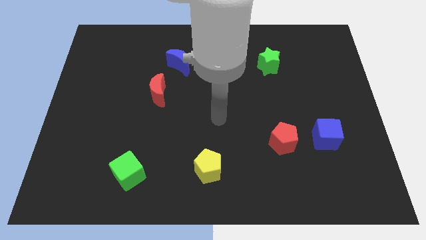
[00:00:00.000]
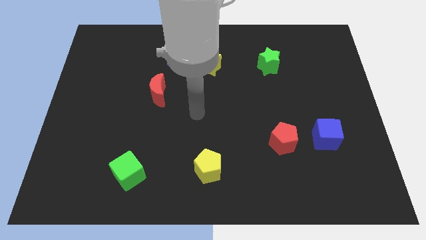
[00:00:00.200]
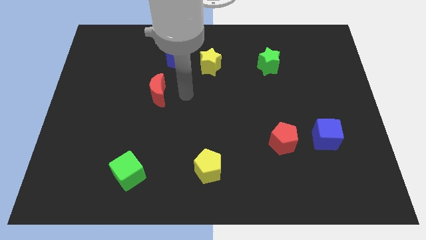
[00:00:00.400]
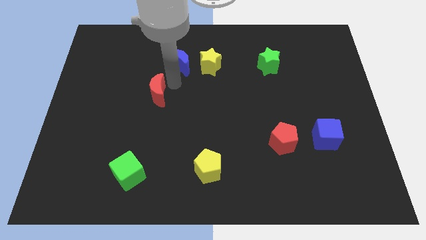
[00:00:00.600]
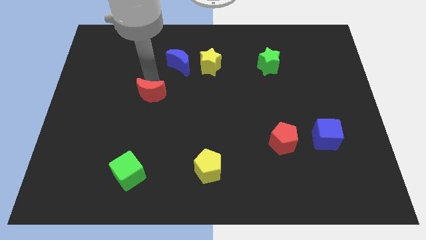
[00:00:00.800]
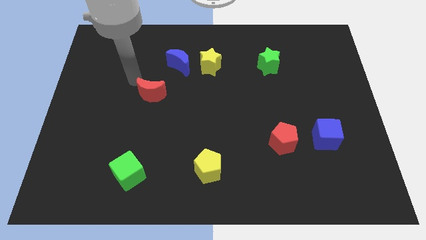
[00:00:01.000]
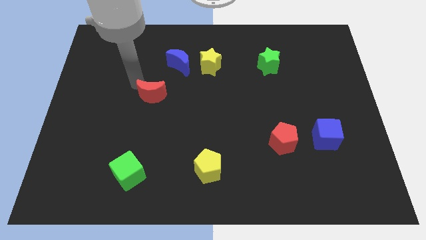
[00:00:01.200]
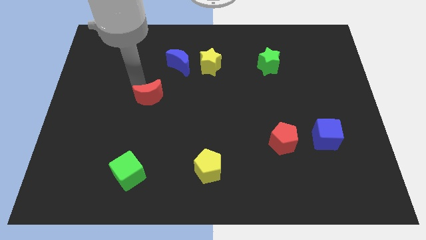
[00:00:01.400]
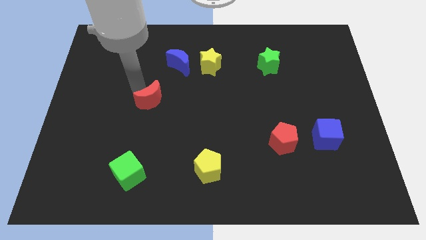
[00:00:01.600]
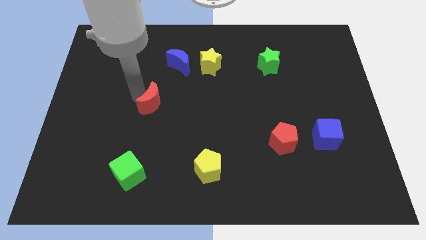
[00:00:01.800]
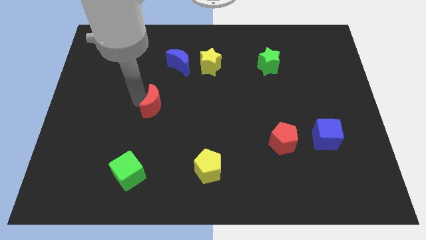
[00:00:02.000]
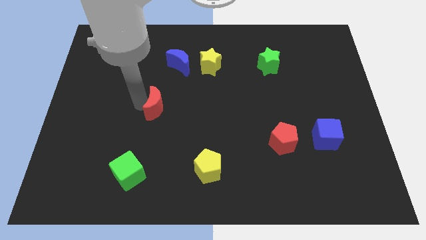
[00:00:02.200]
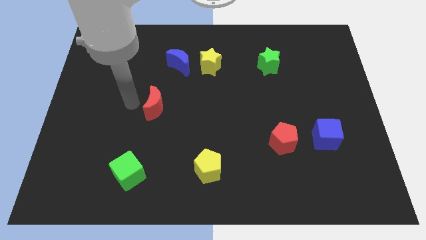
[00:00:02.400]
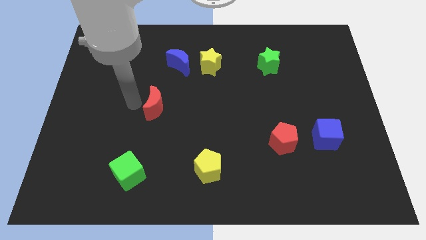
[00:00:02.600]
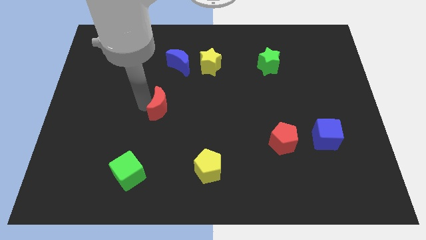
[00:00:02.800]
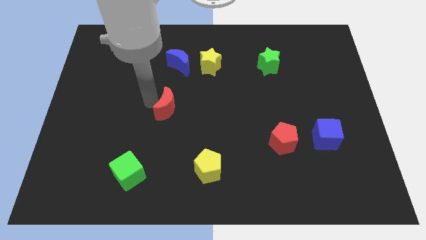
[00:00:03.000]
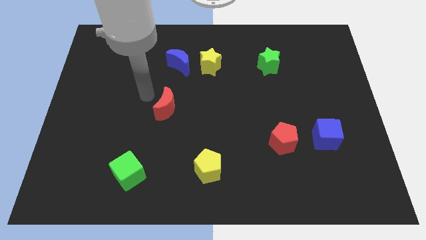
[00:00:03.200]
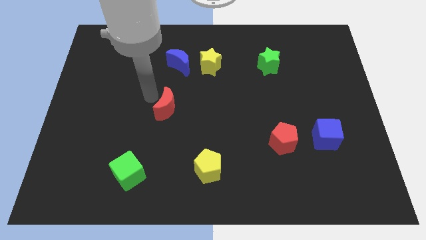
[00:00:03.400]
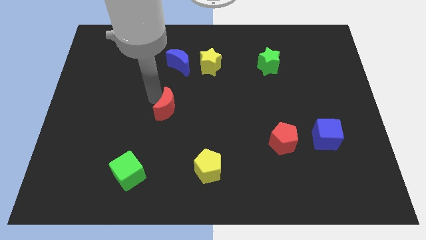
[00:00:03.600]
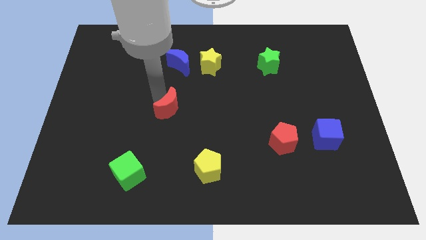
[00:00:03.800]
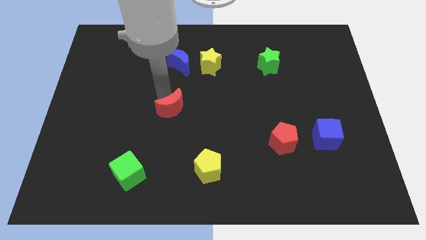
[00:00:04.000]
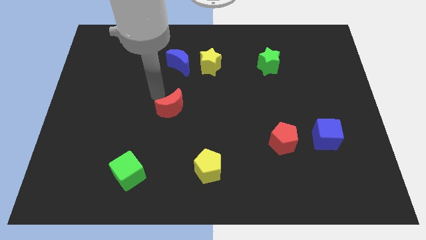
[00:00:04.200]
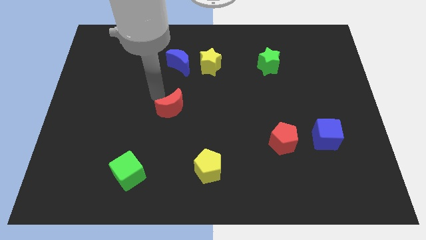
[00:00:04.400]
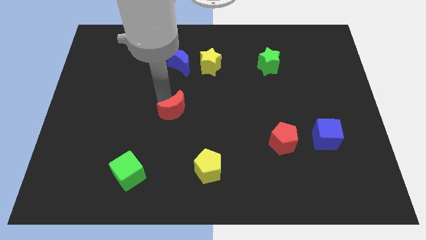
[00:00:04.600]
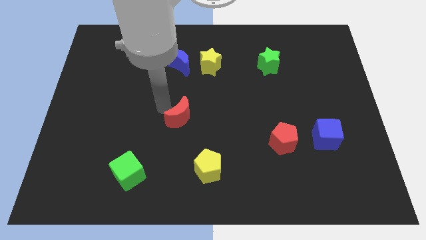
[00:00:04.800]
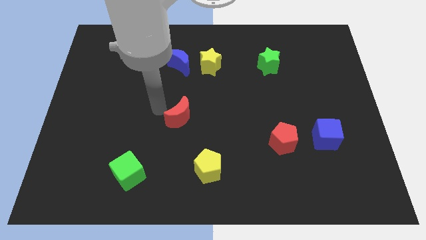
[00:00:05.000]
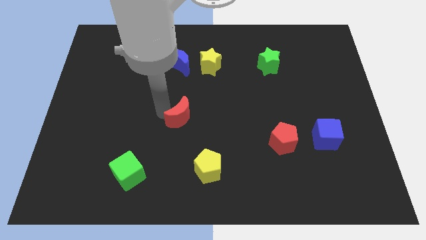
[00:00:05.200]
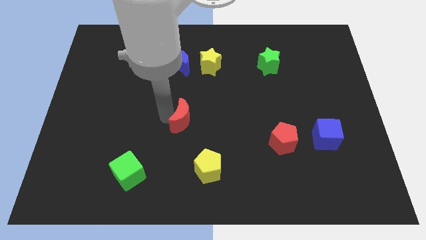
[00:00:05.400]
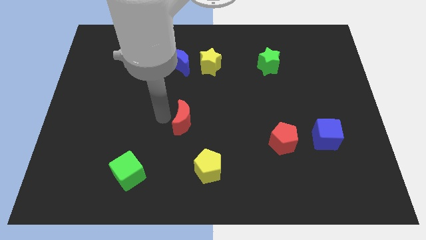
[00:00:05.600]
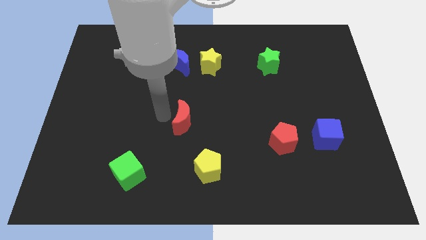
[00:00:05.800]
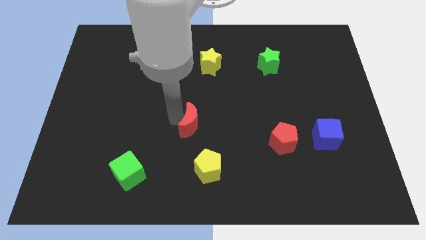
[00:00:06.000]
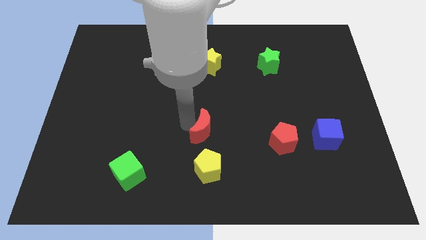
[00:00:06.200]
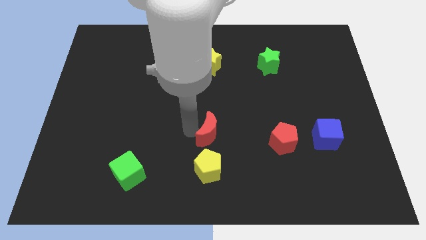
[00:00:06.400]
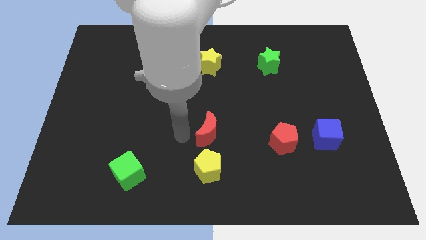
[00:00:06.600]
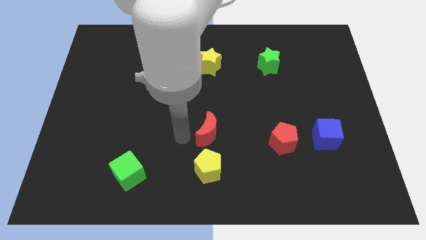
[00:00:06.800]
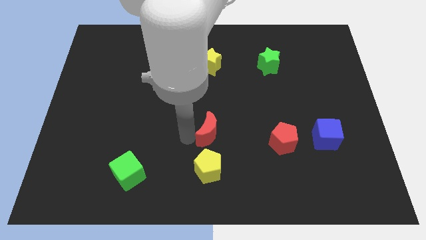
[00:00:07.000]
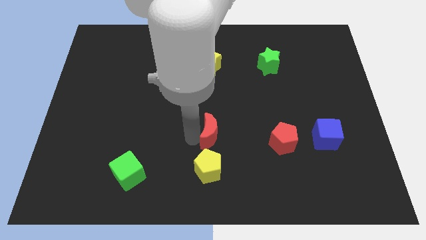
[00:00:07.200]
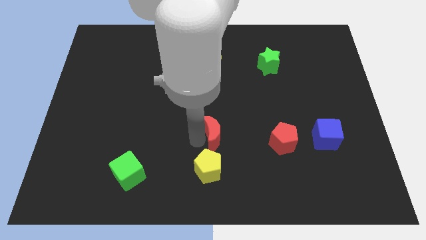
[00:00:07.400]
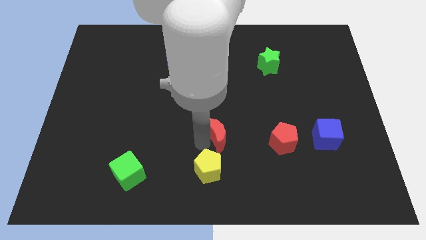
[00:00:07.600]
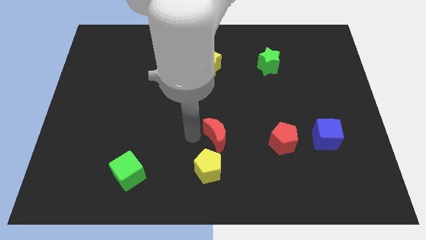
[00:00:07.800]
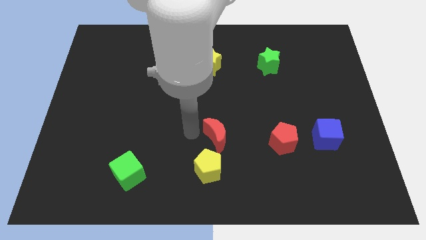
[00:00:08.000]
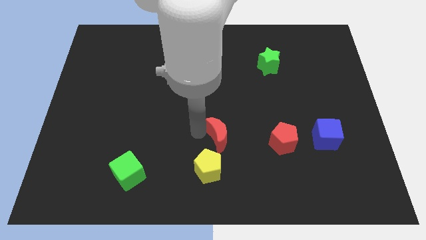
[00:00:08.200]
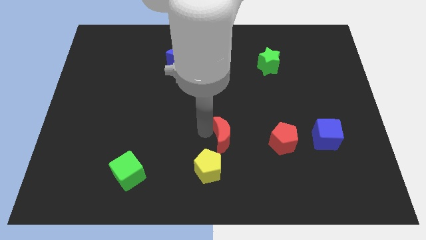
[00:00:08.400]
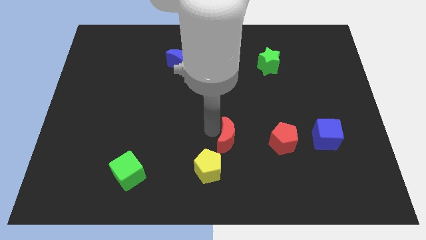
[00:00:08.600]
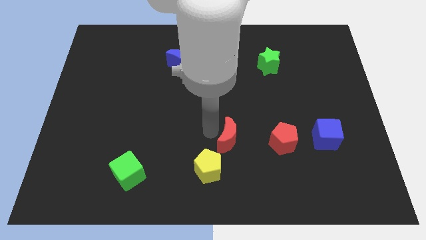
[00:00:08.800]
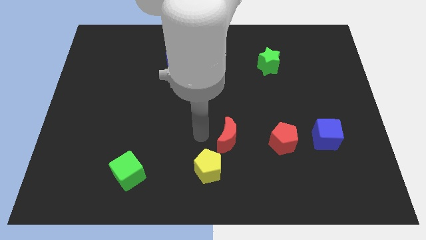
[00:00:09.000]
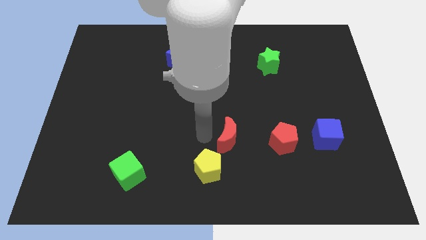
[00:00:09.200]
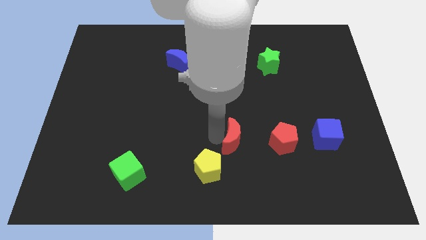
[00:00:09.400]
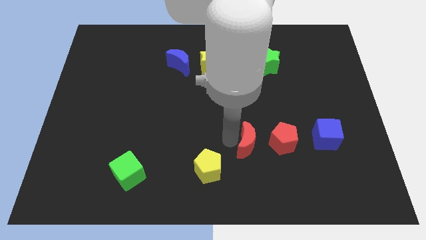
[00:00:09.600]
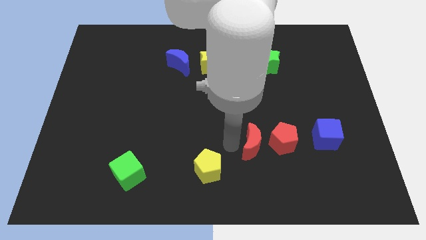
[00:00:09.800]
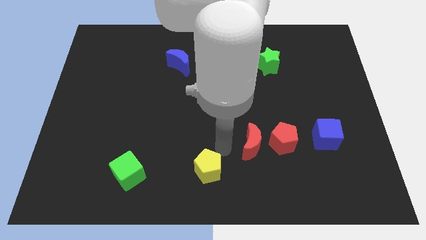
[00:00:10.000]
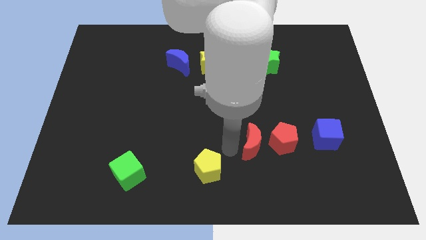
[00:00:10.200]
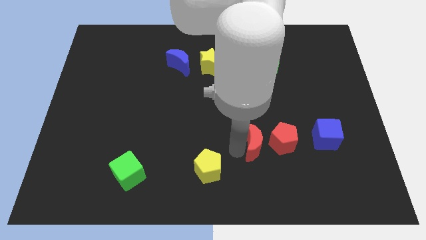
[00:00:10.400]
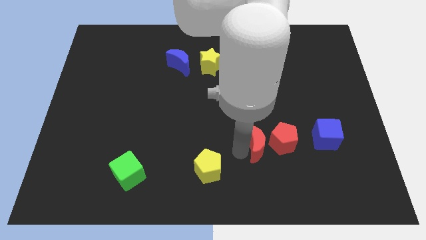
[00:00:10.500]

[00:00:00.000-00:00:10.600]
put the red moon to the red pentagon

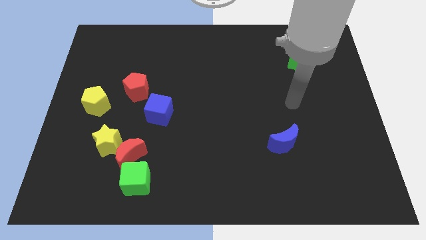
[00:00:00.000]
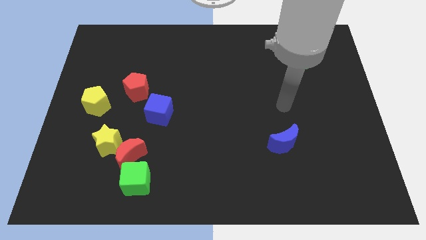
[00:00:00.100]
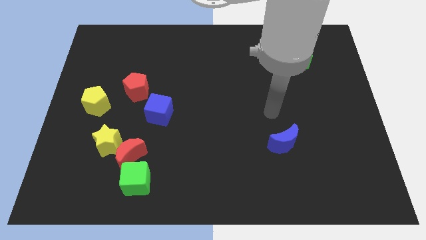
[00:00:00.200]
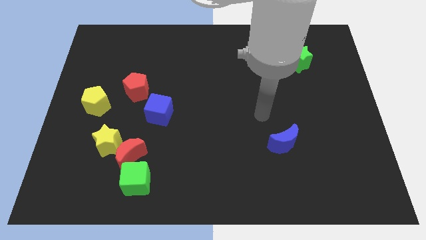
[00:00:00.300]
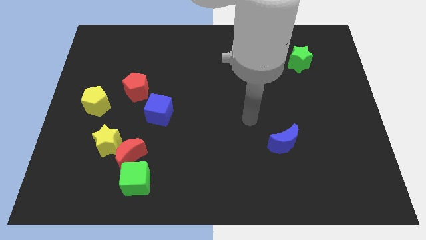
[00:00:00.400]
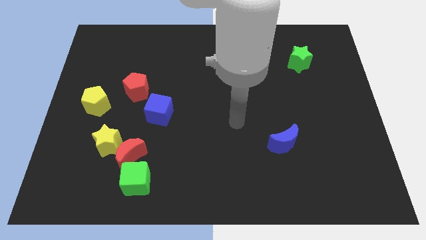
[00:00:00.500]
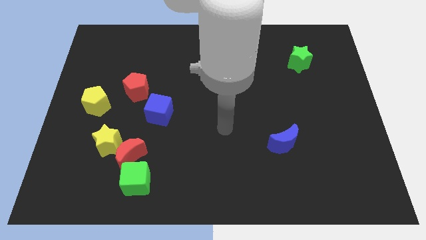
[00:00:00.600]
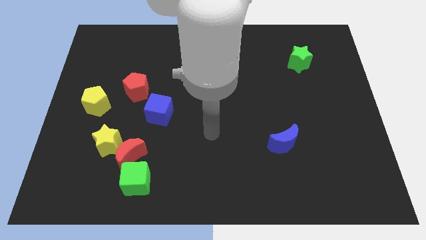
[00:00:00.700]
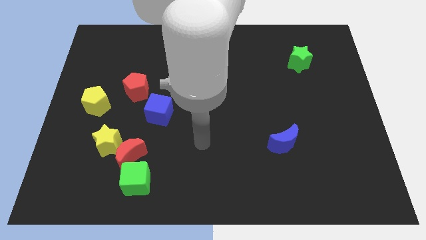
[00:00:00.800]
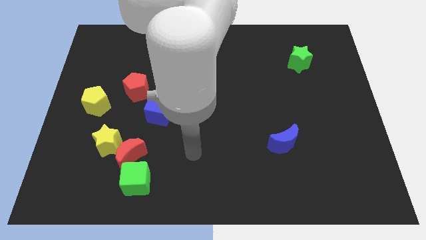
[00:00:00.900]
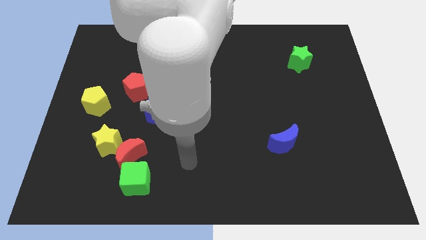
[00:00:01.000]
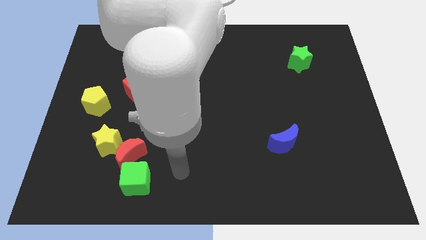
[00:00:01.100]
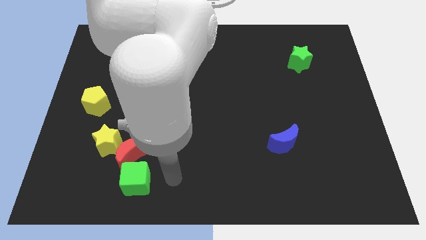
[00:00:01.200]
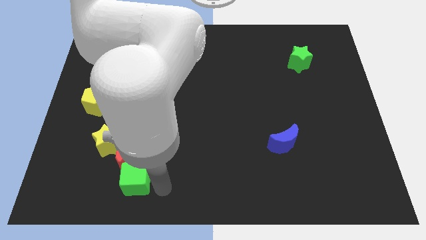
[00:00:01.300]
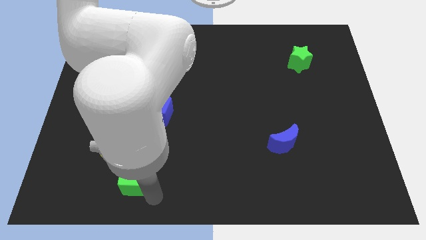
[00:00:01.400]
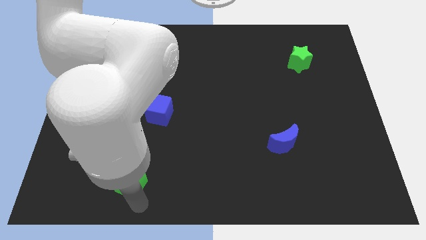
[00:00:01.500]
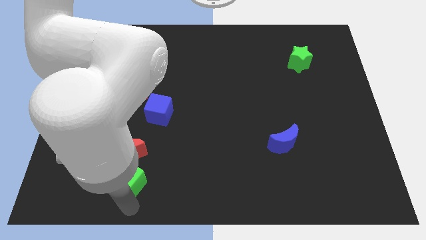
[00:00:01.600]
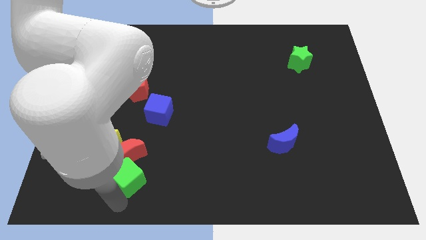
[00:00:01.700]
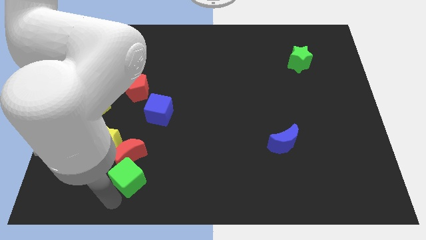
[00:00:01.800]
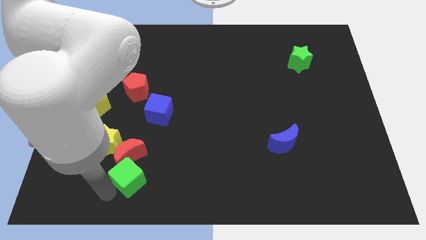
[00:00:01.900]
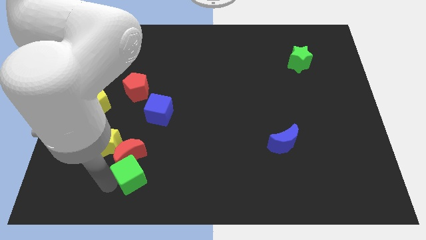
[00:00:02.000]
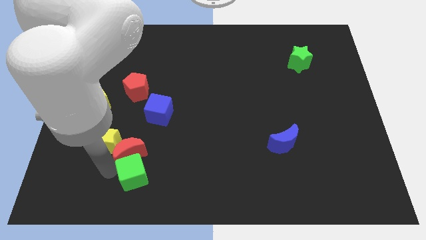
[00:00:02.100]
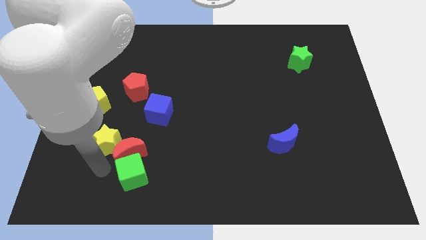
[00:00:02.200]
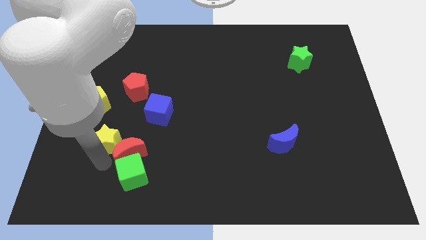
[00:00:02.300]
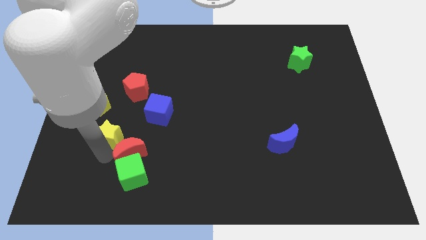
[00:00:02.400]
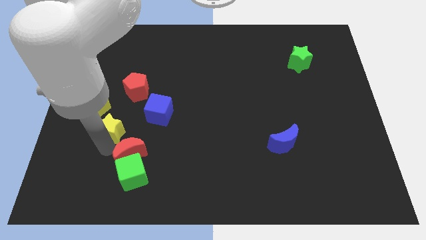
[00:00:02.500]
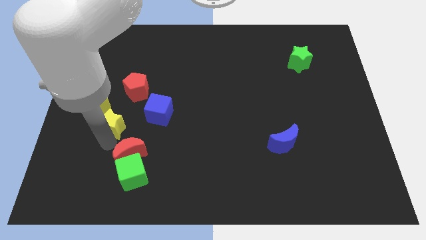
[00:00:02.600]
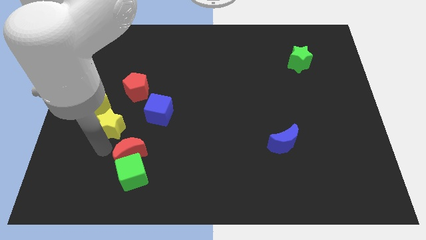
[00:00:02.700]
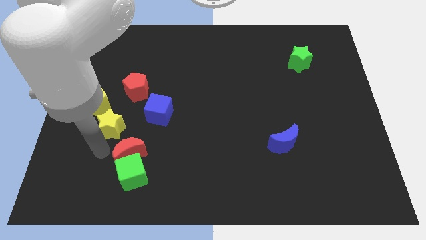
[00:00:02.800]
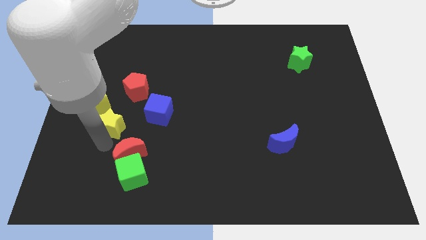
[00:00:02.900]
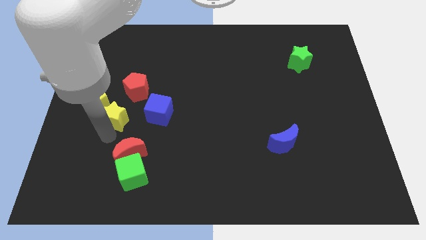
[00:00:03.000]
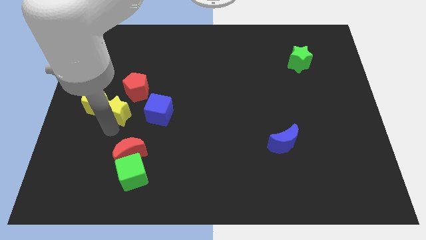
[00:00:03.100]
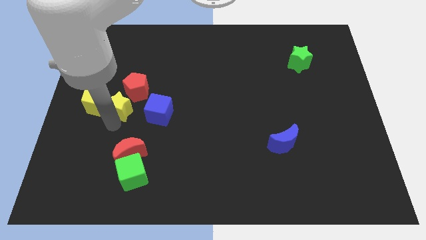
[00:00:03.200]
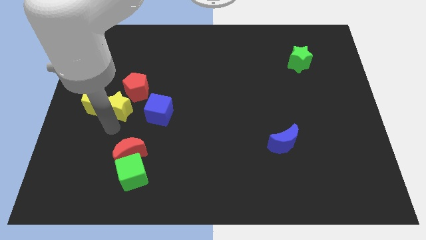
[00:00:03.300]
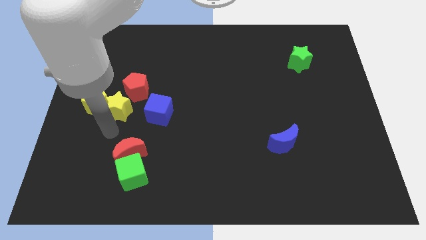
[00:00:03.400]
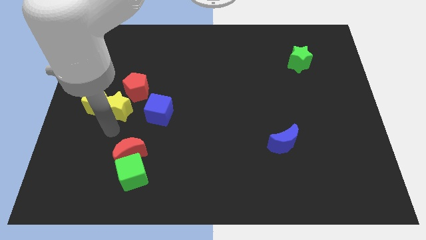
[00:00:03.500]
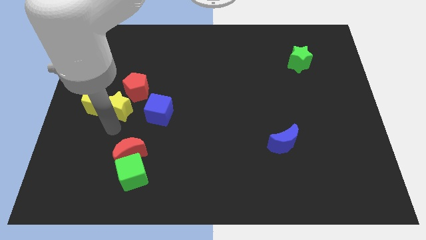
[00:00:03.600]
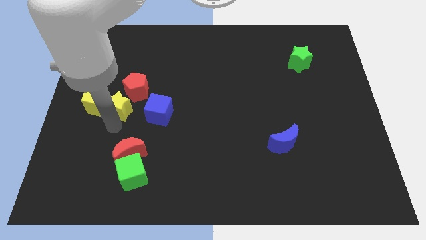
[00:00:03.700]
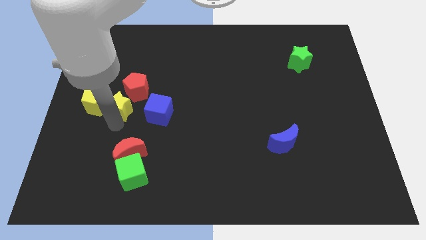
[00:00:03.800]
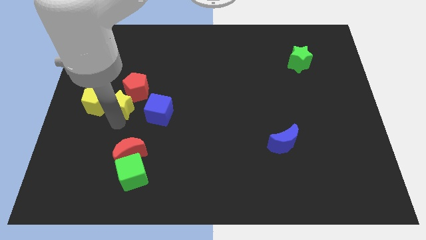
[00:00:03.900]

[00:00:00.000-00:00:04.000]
move the yellow star next to the red pentagon
